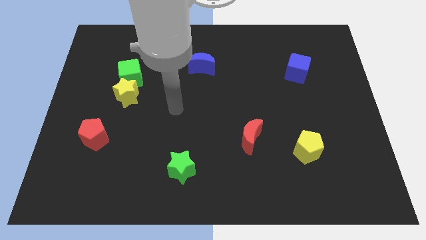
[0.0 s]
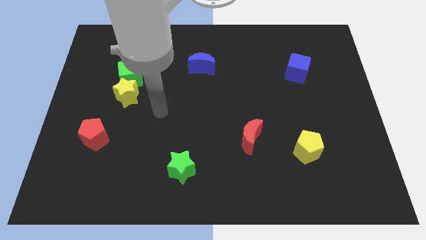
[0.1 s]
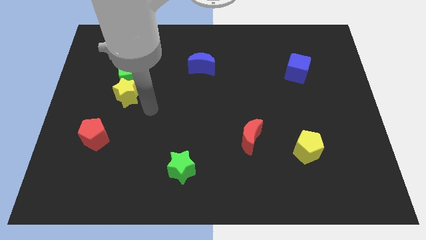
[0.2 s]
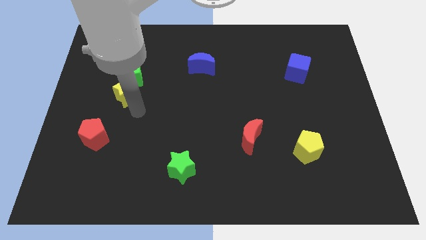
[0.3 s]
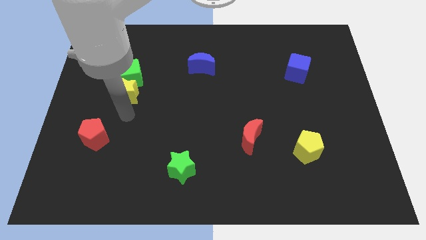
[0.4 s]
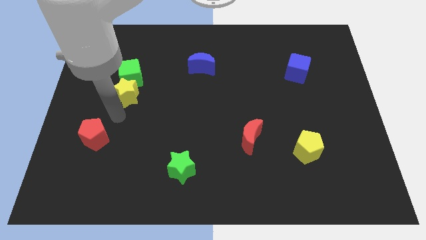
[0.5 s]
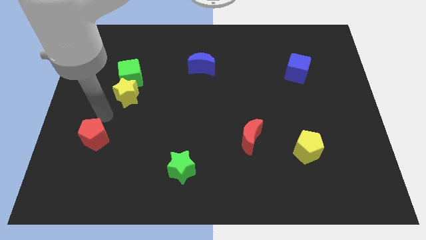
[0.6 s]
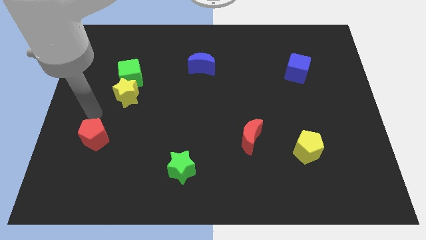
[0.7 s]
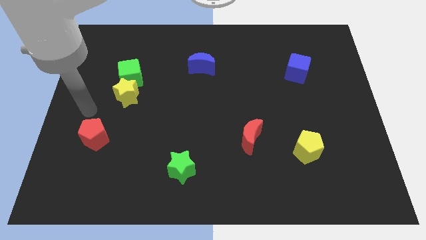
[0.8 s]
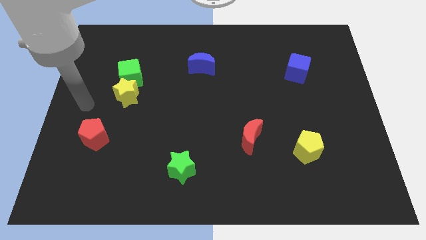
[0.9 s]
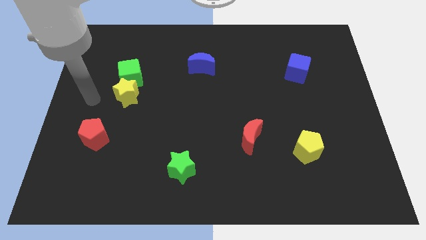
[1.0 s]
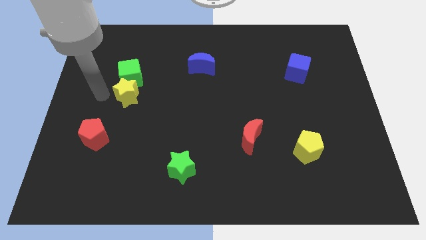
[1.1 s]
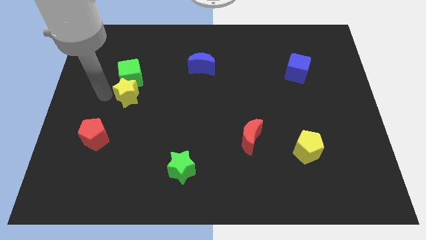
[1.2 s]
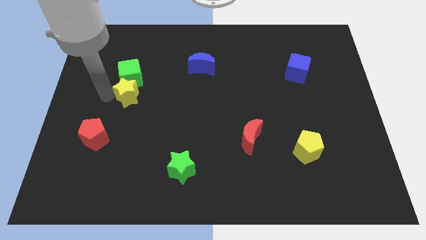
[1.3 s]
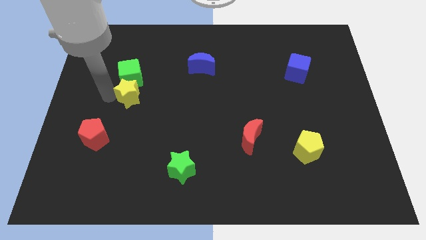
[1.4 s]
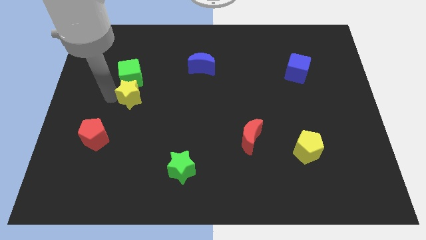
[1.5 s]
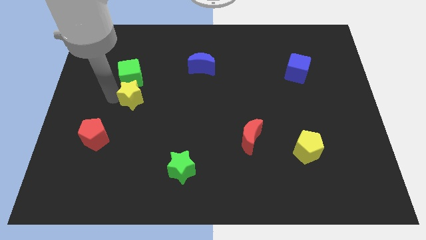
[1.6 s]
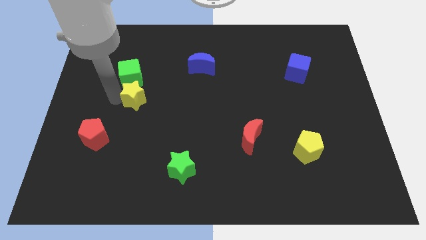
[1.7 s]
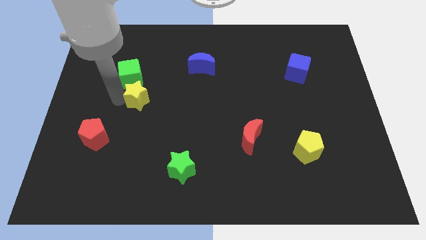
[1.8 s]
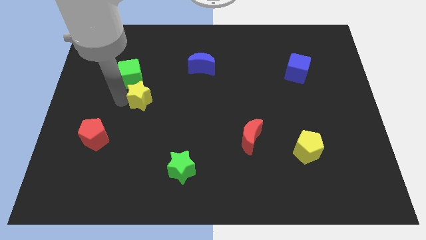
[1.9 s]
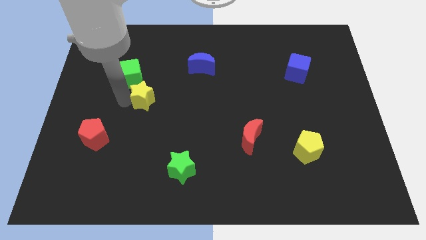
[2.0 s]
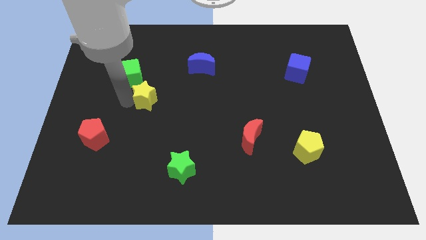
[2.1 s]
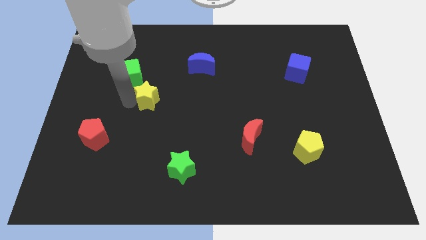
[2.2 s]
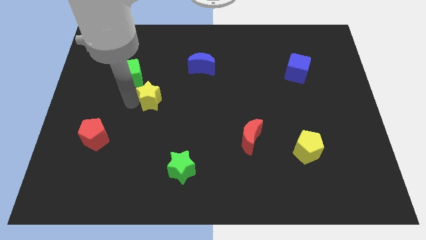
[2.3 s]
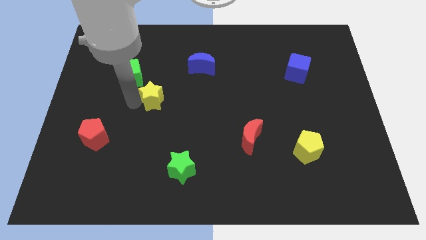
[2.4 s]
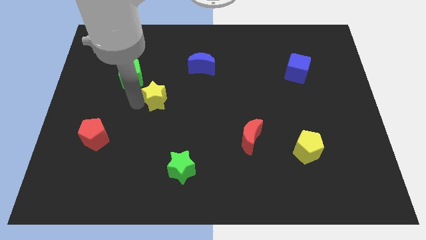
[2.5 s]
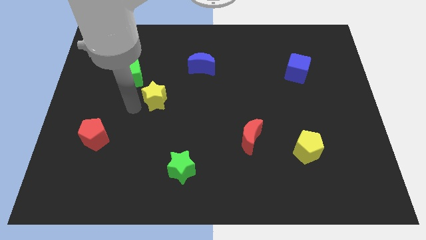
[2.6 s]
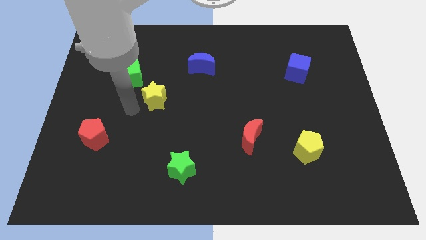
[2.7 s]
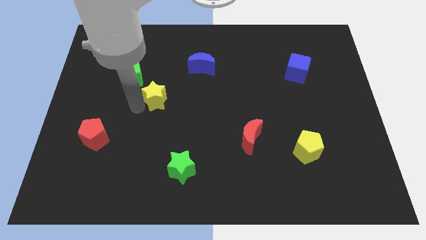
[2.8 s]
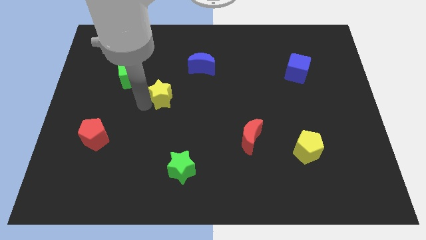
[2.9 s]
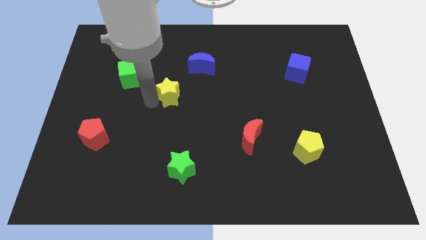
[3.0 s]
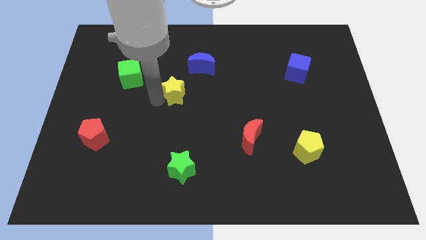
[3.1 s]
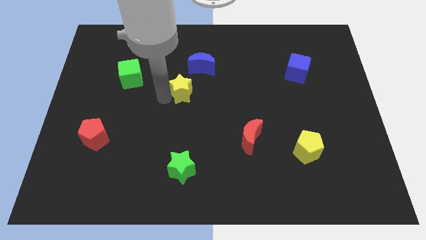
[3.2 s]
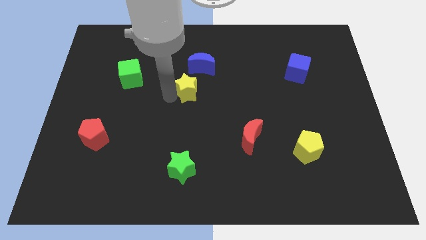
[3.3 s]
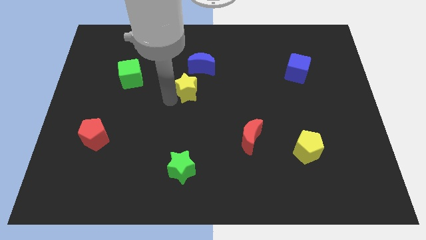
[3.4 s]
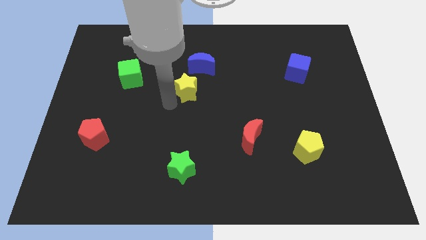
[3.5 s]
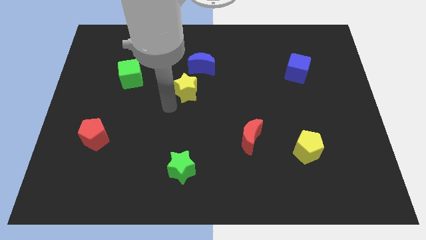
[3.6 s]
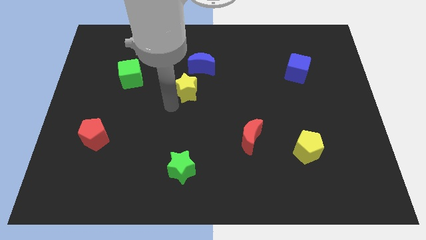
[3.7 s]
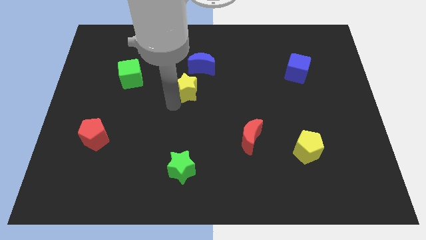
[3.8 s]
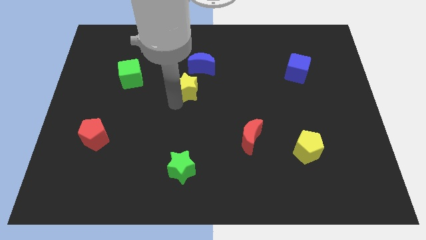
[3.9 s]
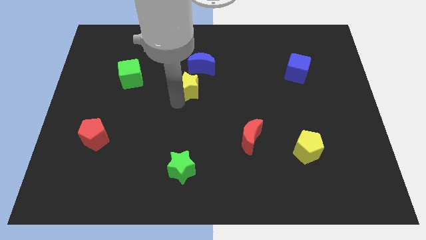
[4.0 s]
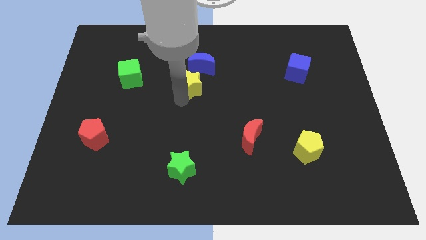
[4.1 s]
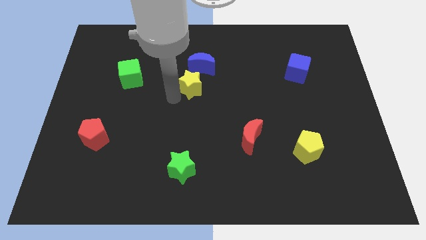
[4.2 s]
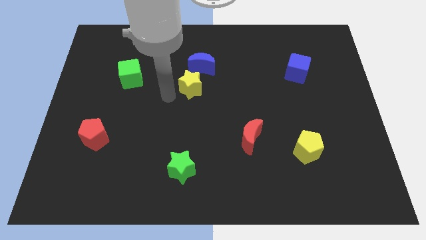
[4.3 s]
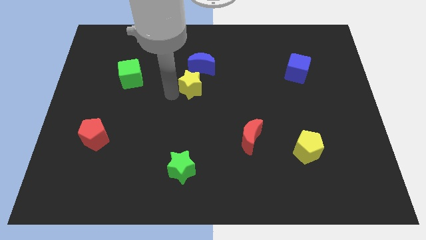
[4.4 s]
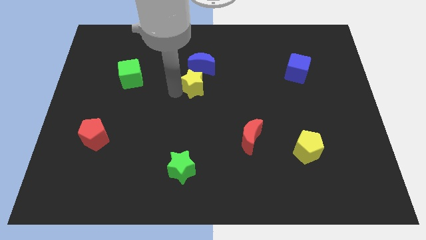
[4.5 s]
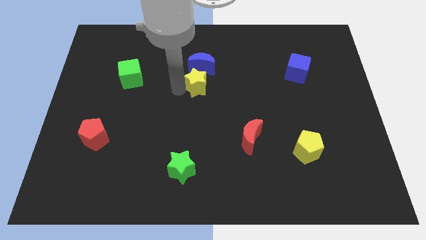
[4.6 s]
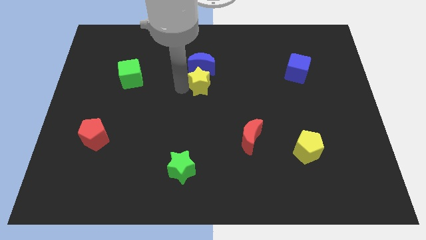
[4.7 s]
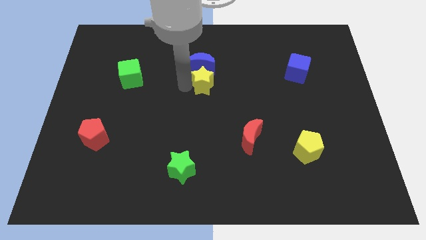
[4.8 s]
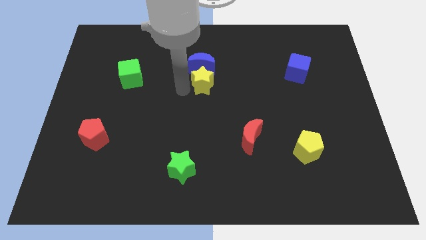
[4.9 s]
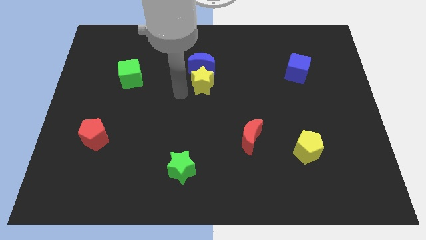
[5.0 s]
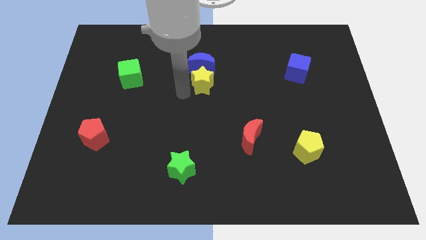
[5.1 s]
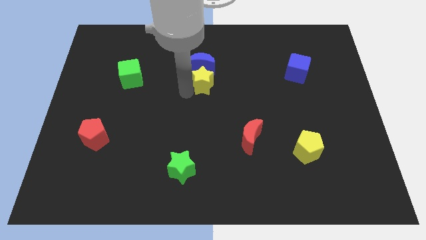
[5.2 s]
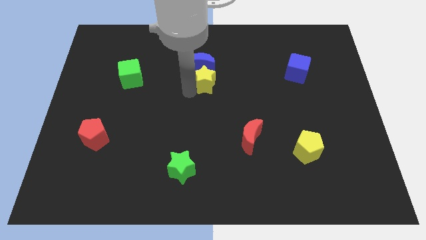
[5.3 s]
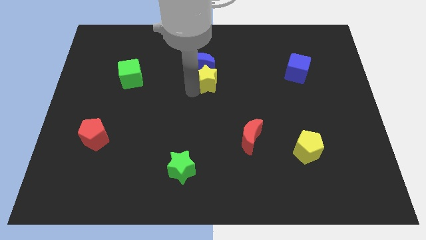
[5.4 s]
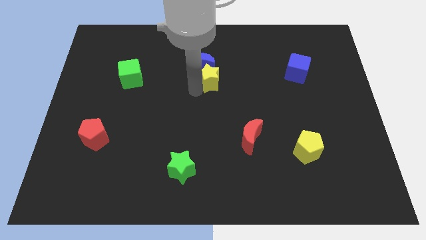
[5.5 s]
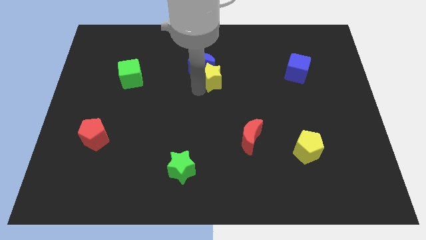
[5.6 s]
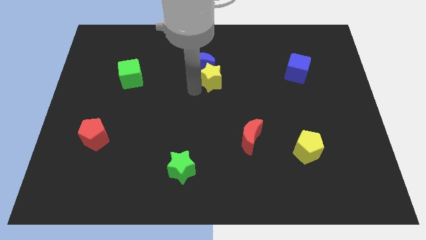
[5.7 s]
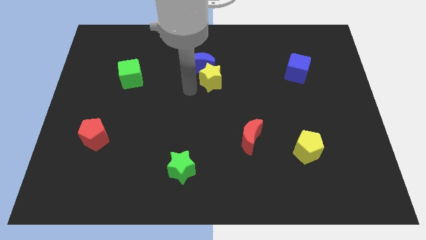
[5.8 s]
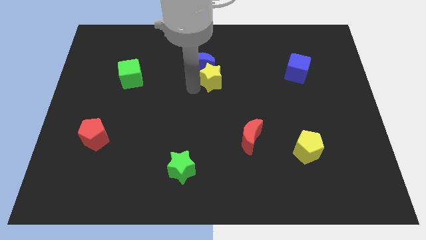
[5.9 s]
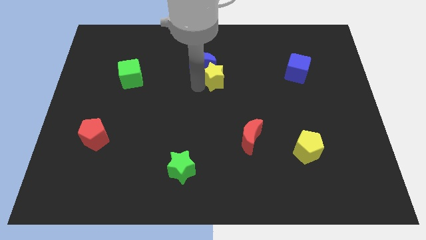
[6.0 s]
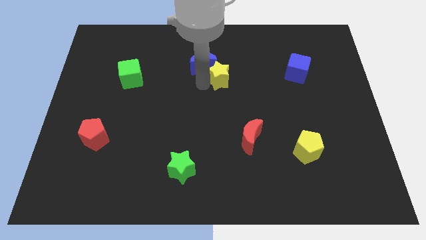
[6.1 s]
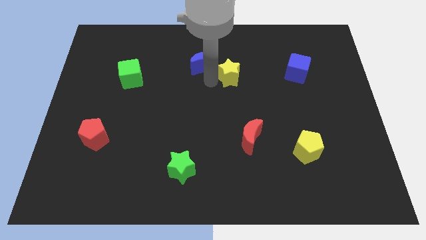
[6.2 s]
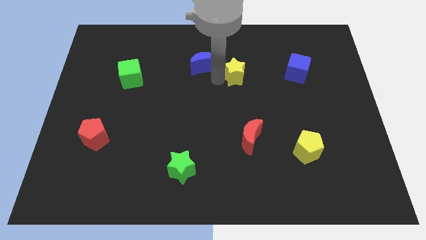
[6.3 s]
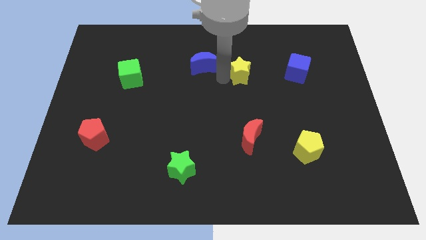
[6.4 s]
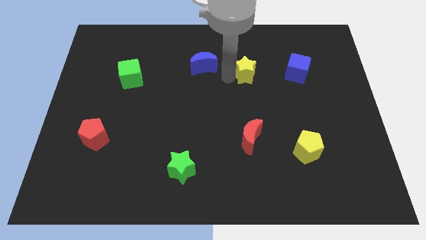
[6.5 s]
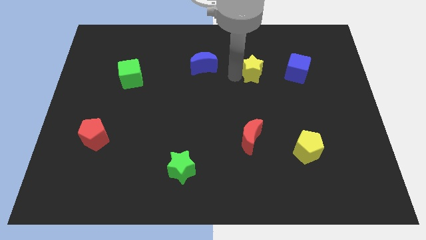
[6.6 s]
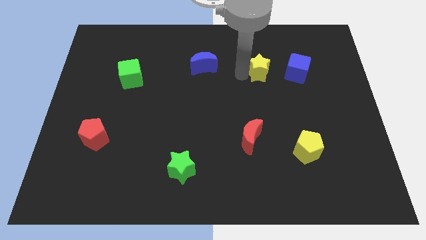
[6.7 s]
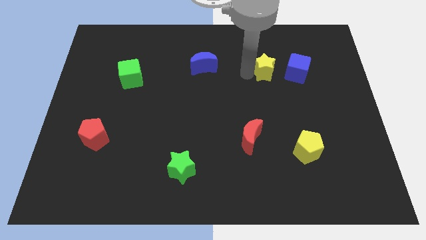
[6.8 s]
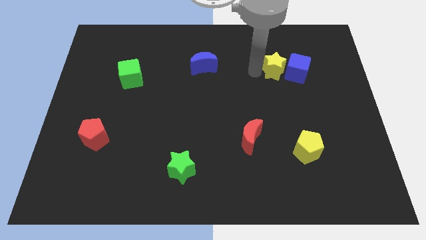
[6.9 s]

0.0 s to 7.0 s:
slide the yellow star towards the blue cube

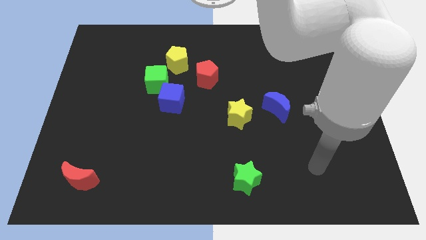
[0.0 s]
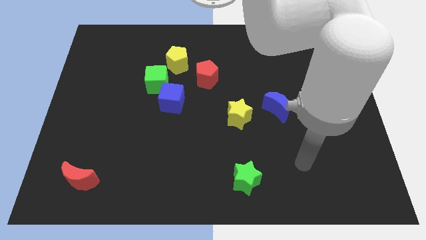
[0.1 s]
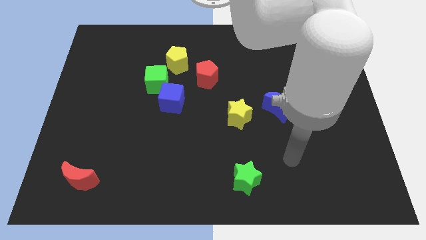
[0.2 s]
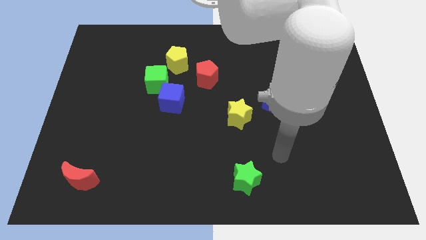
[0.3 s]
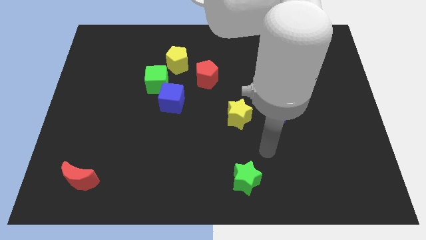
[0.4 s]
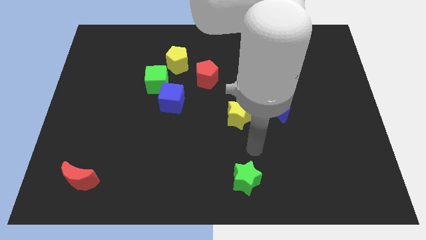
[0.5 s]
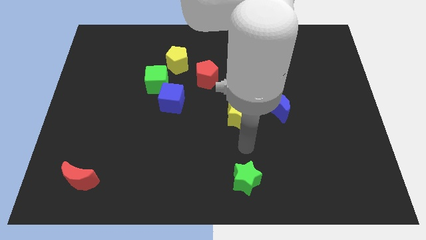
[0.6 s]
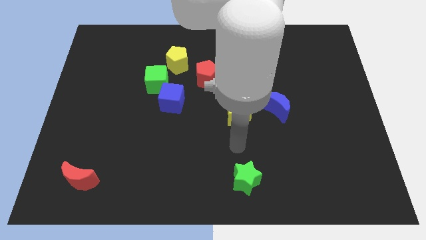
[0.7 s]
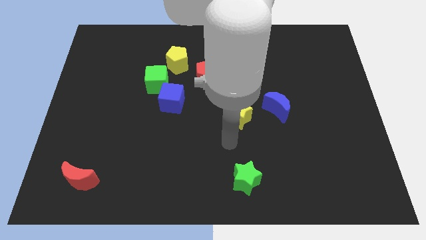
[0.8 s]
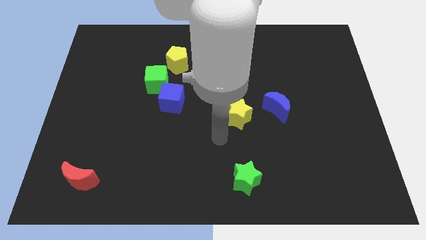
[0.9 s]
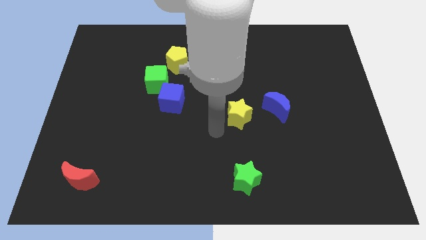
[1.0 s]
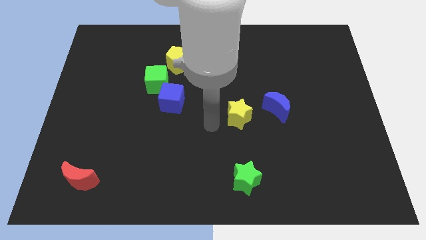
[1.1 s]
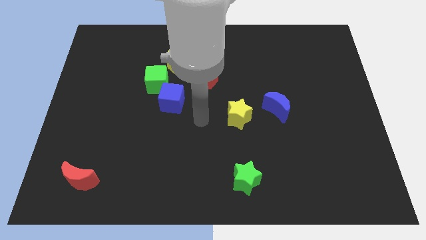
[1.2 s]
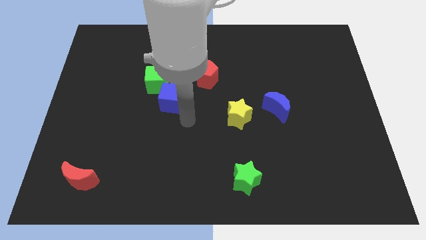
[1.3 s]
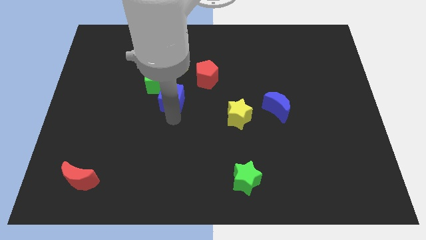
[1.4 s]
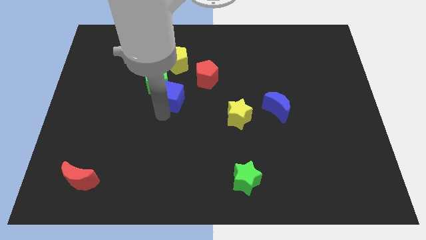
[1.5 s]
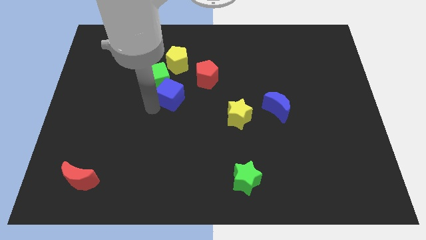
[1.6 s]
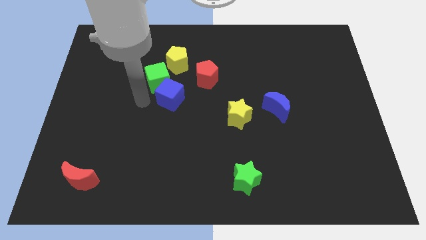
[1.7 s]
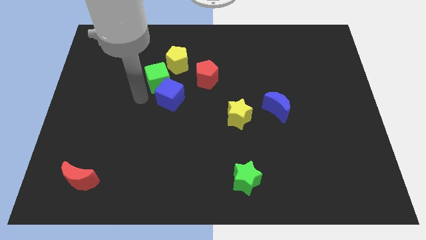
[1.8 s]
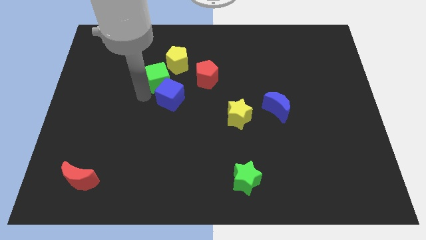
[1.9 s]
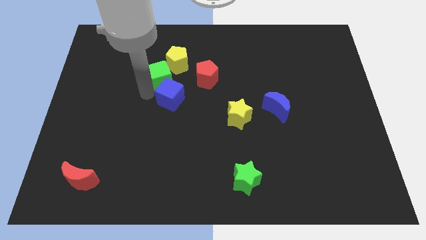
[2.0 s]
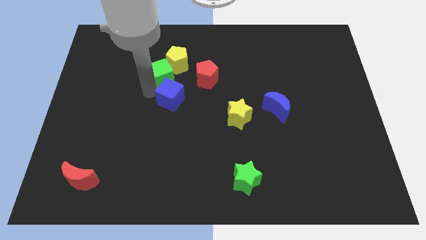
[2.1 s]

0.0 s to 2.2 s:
push the green cube next to the yellow pentagon
